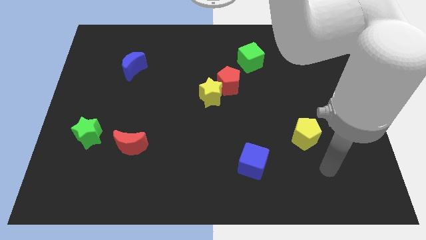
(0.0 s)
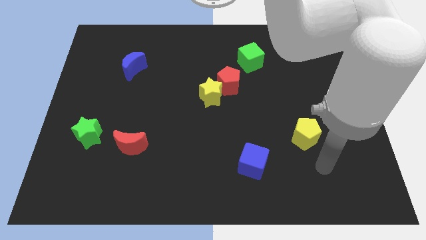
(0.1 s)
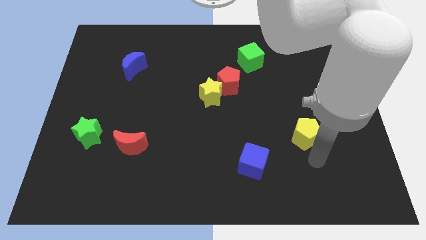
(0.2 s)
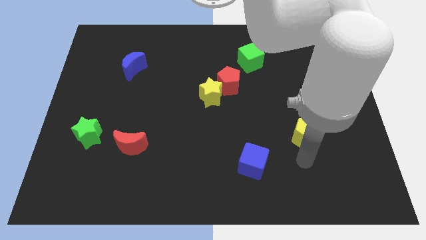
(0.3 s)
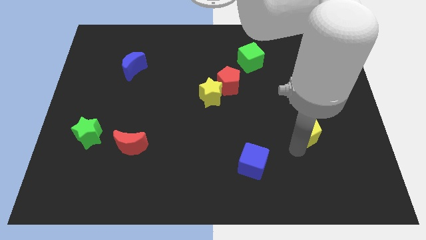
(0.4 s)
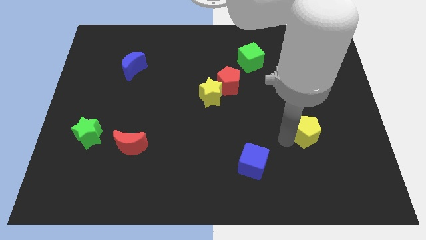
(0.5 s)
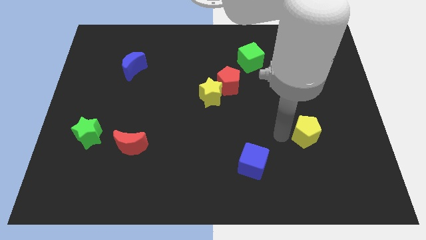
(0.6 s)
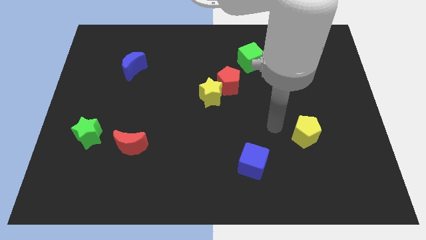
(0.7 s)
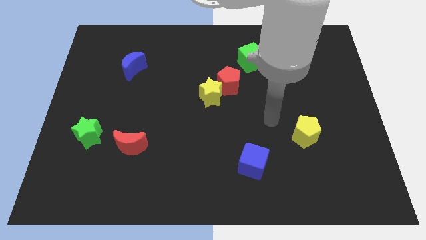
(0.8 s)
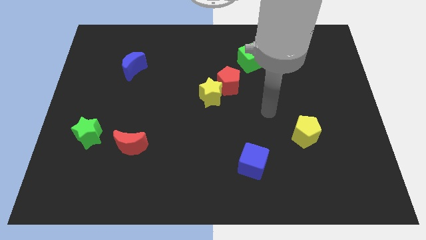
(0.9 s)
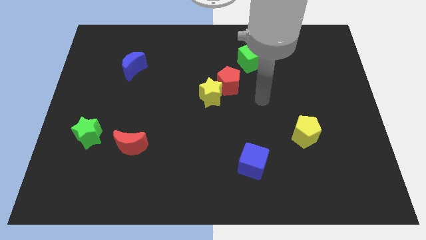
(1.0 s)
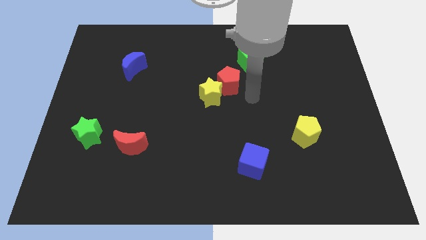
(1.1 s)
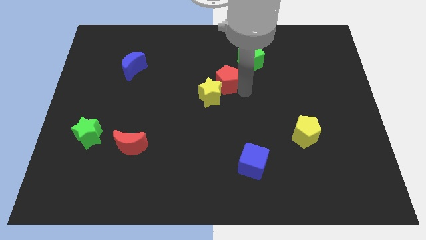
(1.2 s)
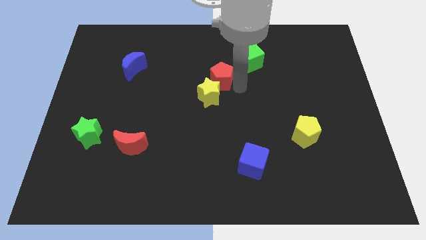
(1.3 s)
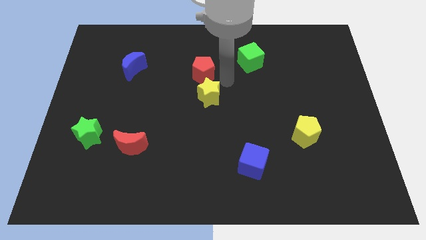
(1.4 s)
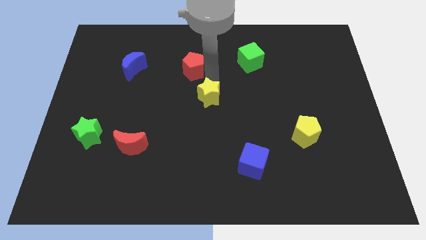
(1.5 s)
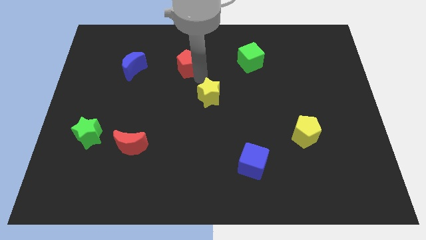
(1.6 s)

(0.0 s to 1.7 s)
separate the yellow star from the red pentagon

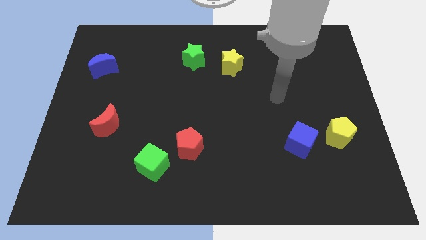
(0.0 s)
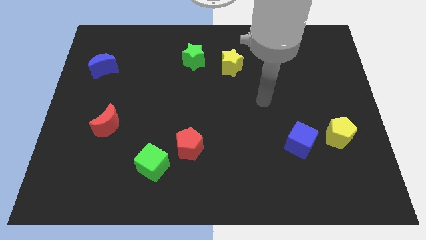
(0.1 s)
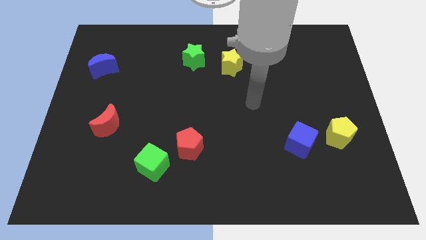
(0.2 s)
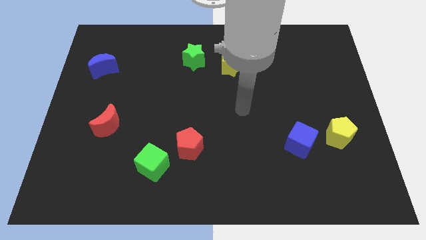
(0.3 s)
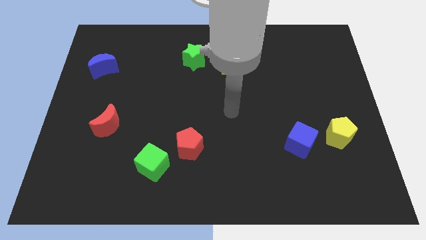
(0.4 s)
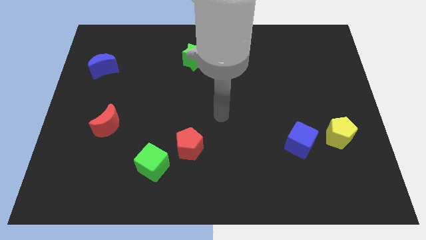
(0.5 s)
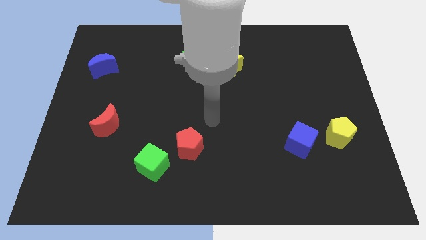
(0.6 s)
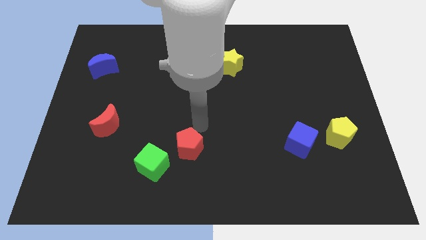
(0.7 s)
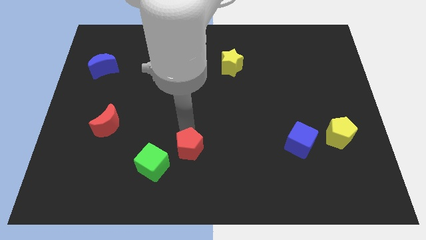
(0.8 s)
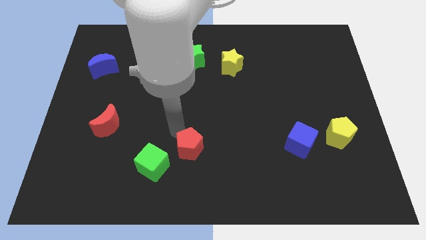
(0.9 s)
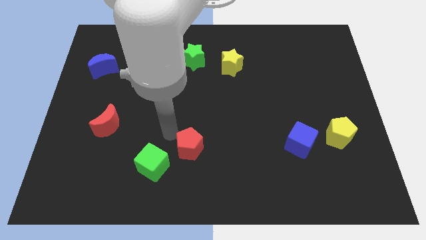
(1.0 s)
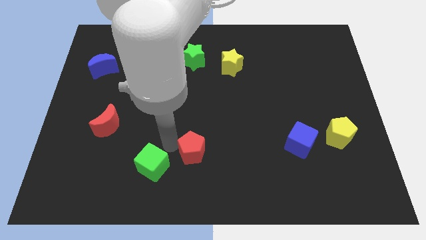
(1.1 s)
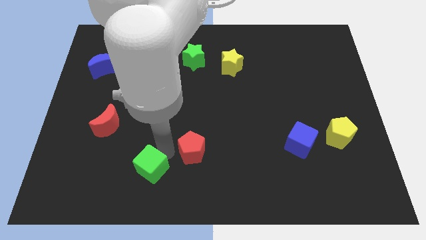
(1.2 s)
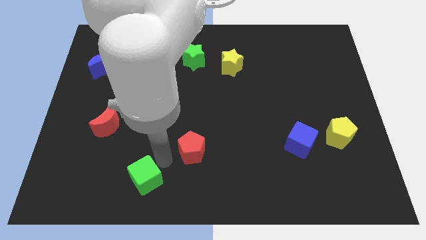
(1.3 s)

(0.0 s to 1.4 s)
pull the red pentagon apart from the green cube

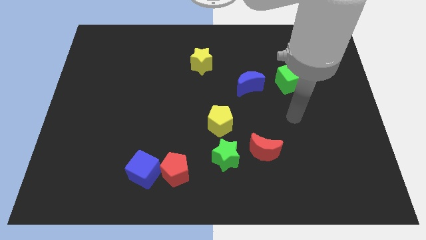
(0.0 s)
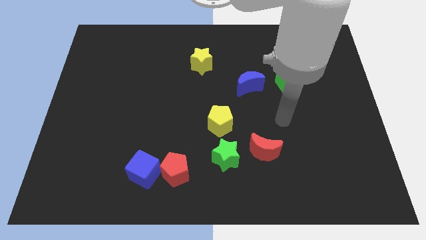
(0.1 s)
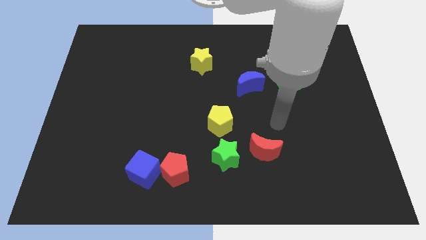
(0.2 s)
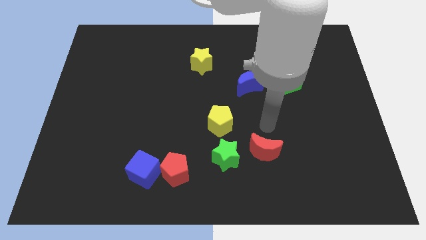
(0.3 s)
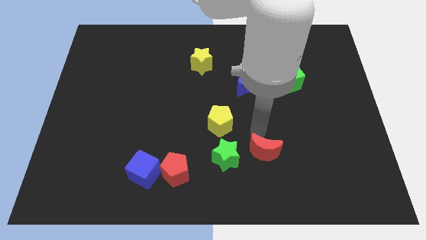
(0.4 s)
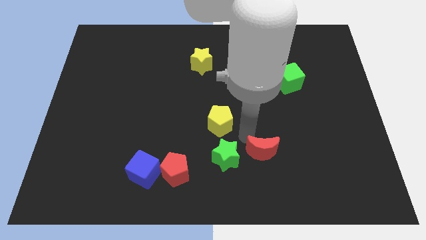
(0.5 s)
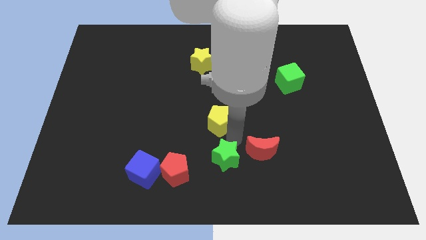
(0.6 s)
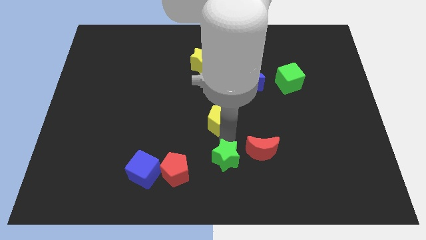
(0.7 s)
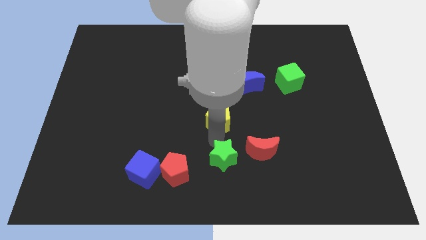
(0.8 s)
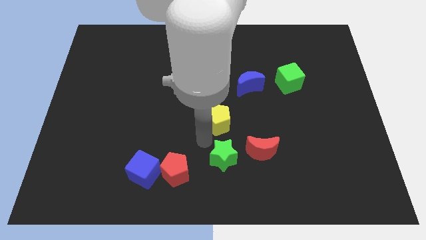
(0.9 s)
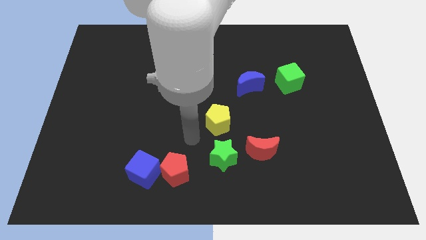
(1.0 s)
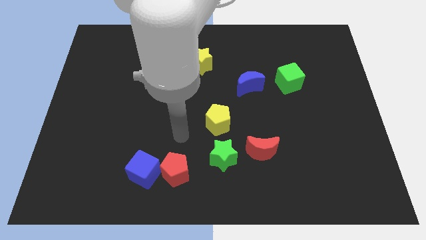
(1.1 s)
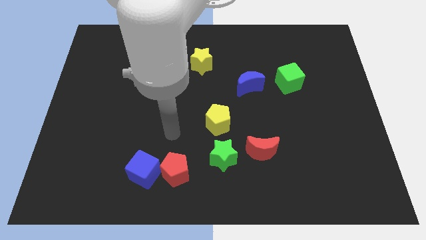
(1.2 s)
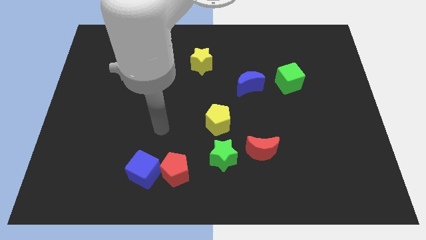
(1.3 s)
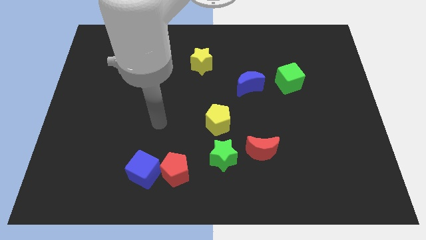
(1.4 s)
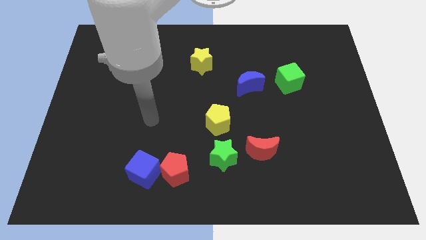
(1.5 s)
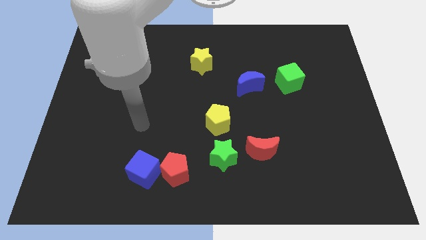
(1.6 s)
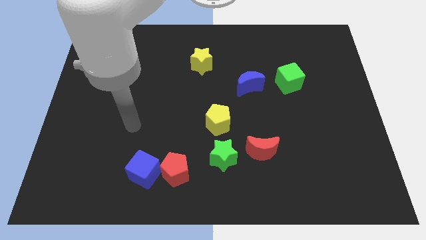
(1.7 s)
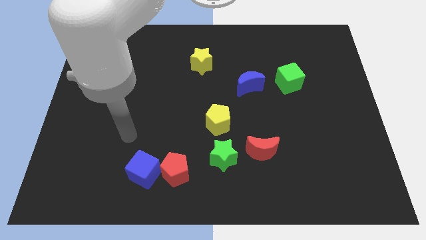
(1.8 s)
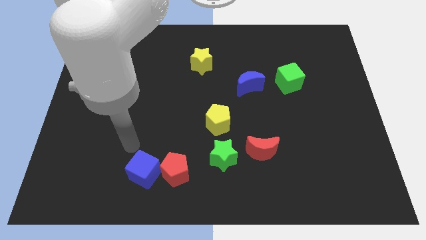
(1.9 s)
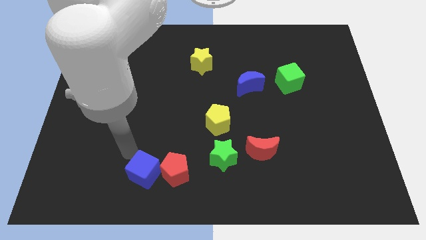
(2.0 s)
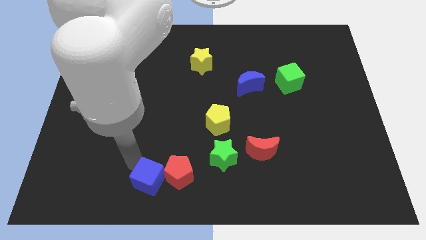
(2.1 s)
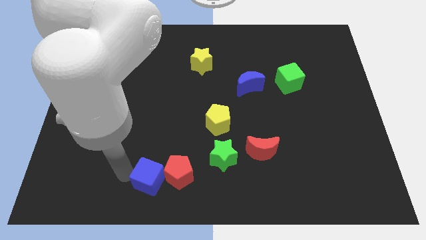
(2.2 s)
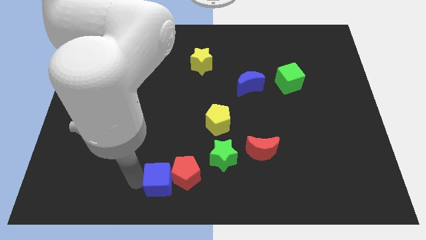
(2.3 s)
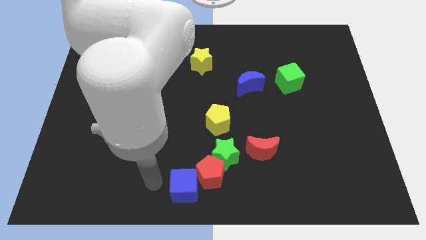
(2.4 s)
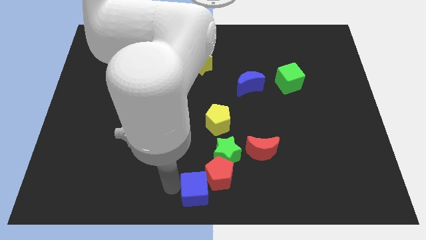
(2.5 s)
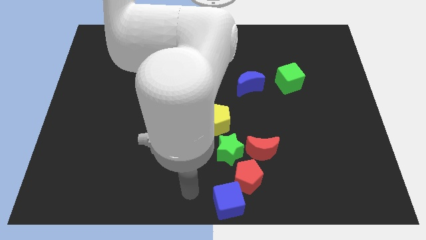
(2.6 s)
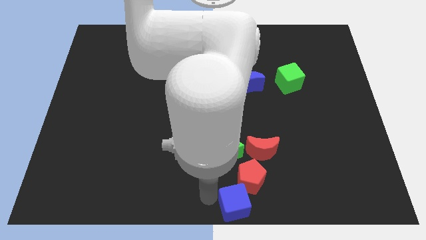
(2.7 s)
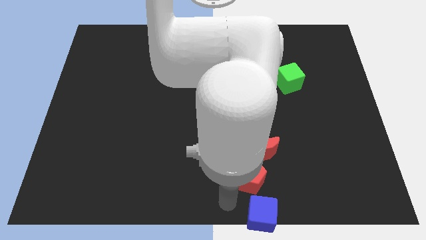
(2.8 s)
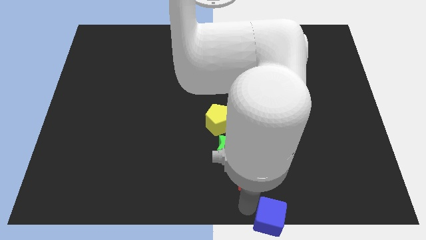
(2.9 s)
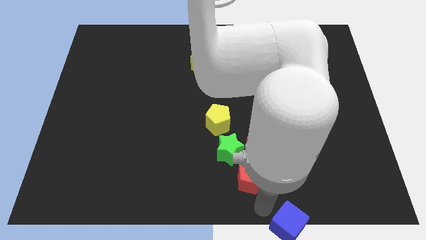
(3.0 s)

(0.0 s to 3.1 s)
move the red pentagon away from the blue cube

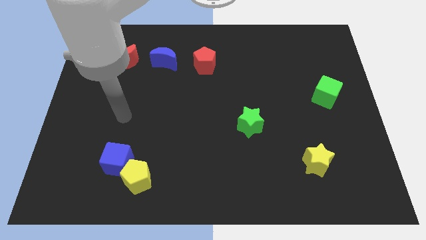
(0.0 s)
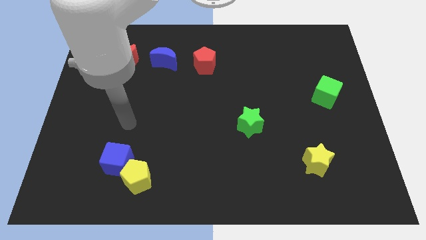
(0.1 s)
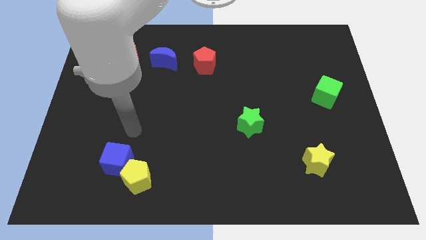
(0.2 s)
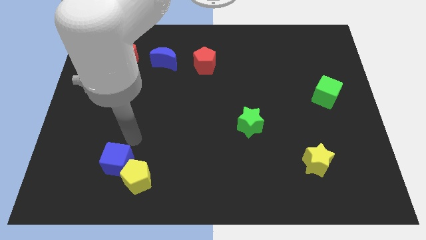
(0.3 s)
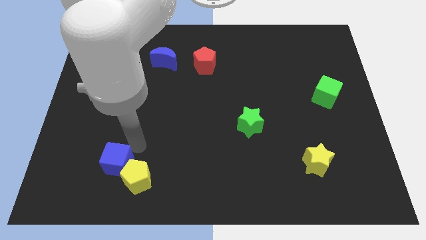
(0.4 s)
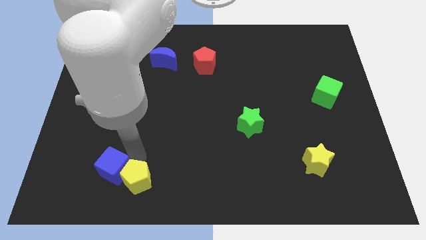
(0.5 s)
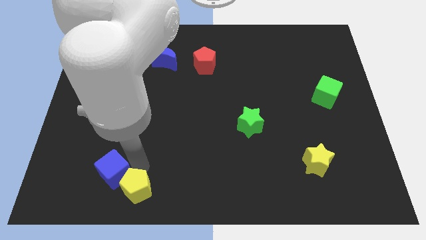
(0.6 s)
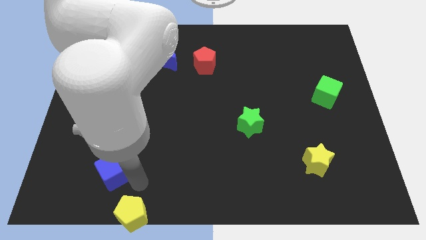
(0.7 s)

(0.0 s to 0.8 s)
pull the blue cube apart from the yellow pentagon

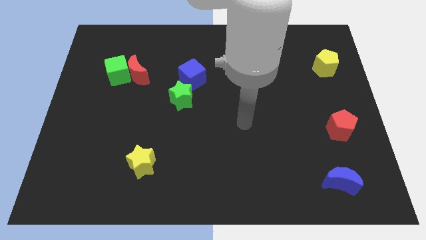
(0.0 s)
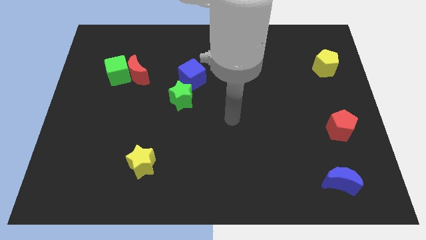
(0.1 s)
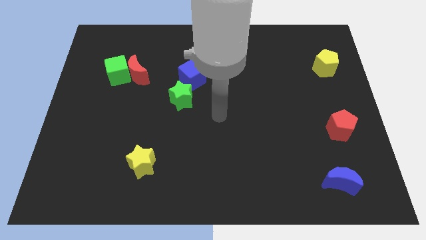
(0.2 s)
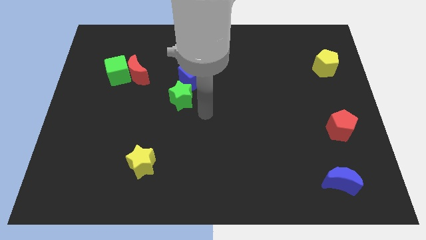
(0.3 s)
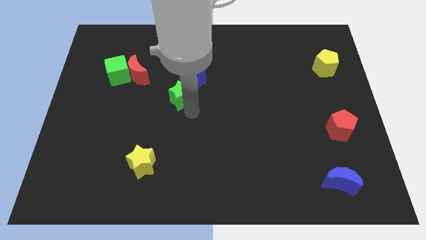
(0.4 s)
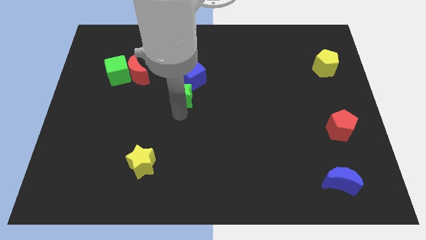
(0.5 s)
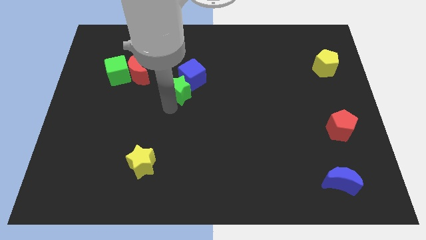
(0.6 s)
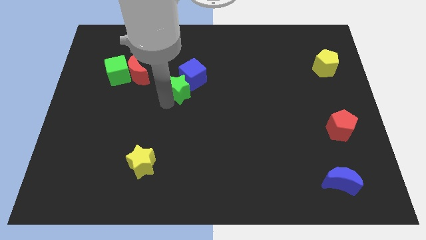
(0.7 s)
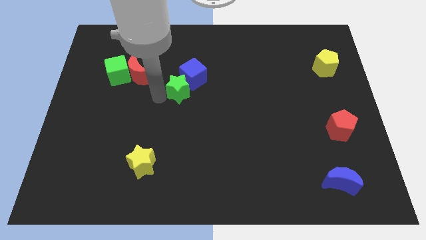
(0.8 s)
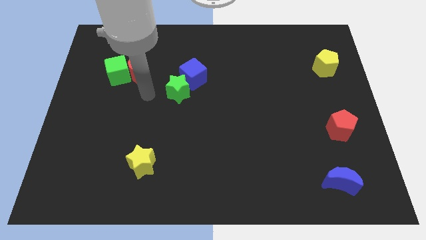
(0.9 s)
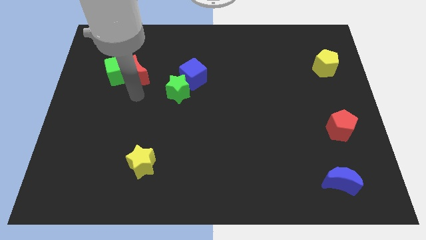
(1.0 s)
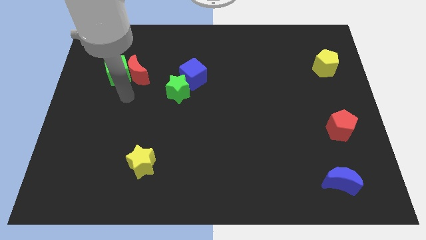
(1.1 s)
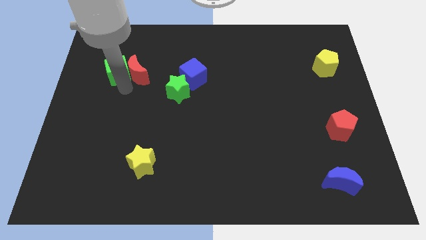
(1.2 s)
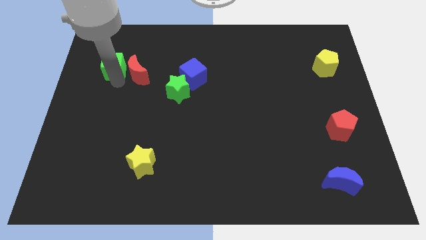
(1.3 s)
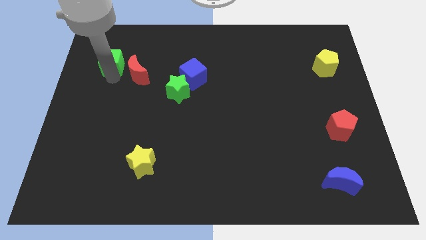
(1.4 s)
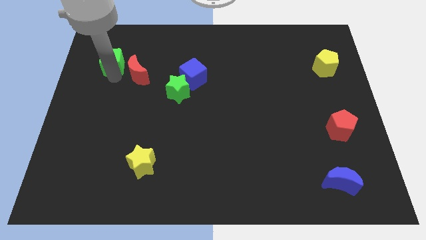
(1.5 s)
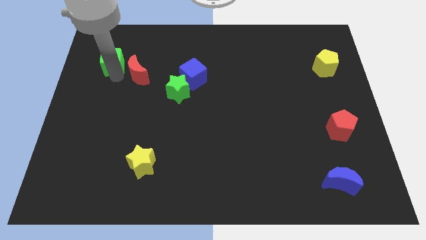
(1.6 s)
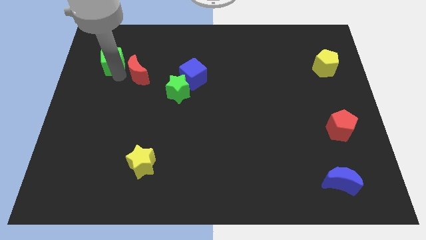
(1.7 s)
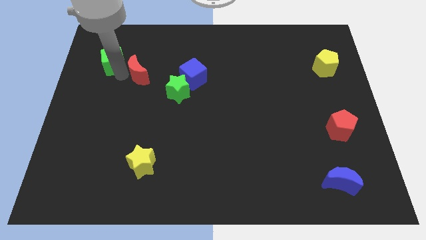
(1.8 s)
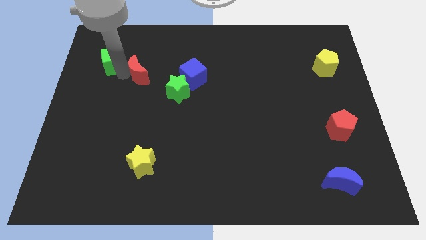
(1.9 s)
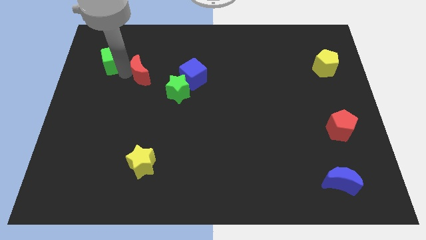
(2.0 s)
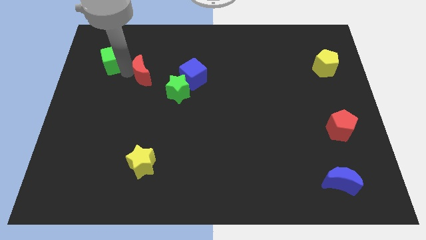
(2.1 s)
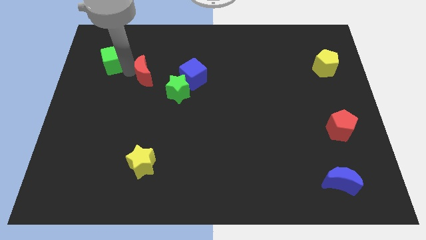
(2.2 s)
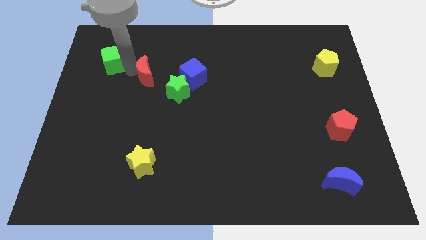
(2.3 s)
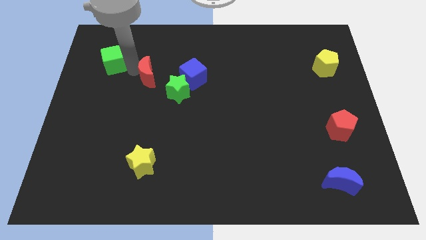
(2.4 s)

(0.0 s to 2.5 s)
separate the red moon from the green cube
